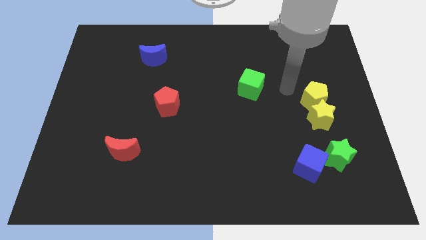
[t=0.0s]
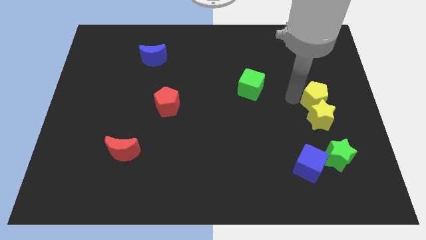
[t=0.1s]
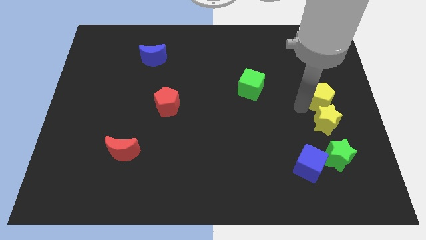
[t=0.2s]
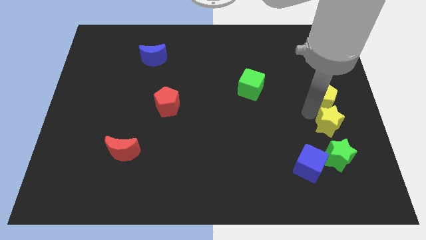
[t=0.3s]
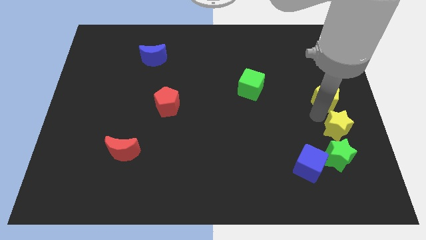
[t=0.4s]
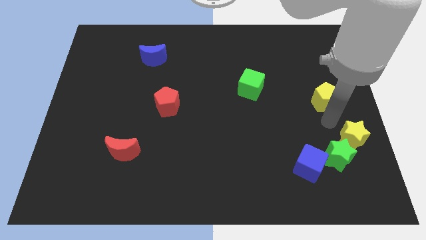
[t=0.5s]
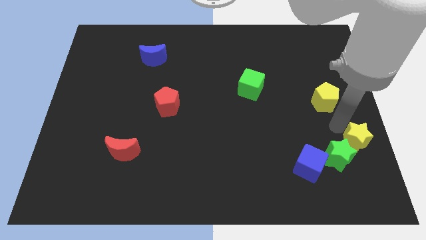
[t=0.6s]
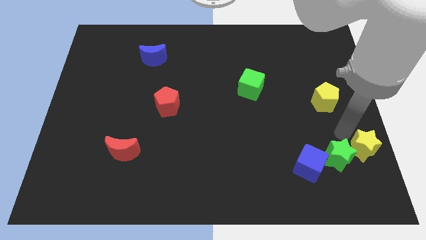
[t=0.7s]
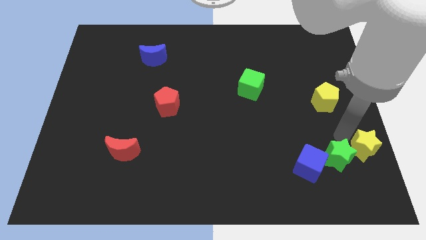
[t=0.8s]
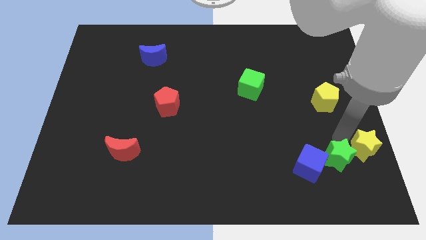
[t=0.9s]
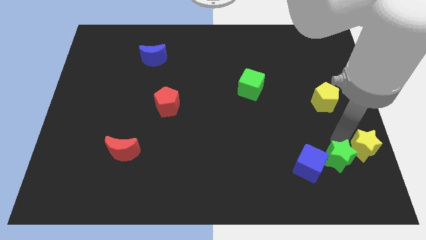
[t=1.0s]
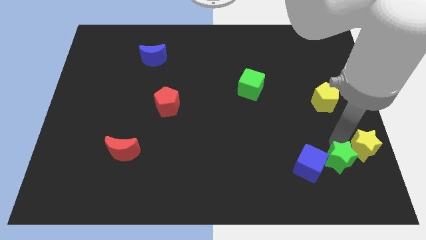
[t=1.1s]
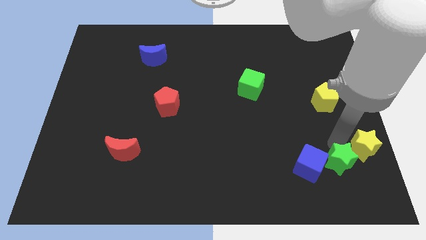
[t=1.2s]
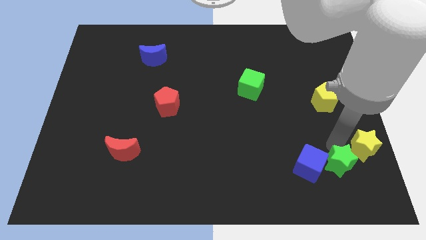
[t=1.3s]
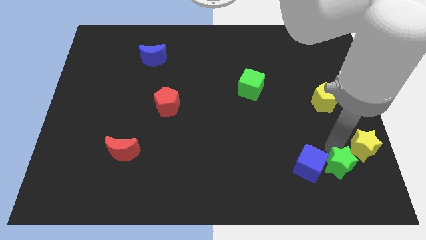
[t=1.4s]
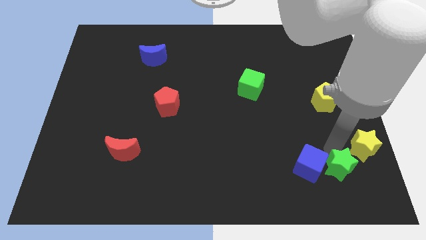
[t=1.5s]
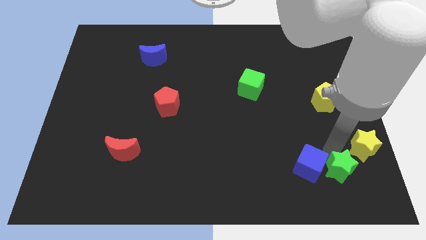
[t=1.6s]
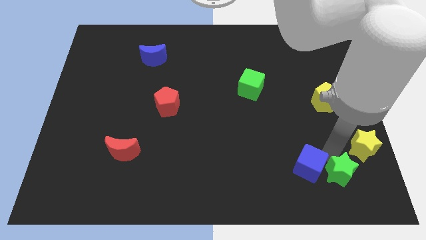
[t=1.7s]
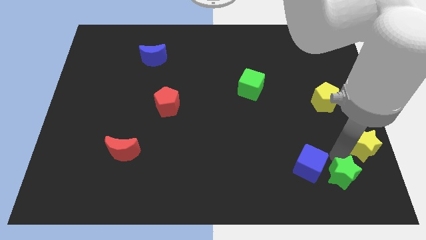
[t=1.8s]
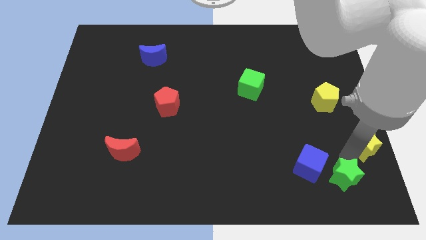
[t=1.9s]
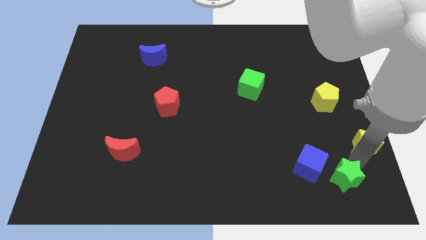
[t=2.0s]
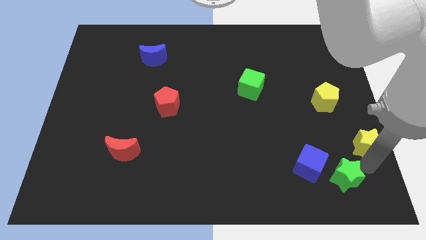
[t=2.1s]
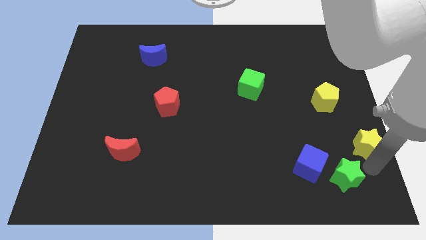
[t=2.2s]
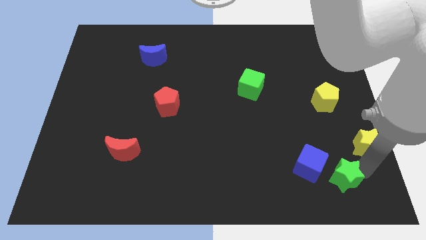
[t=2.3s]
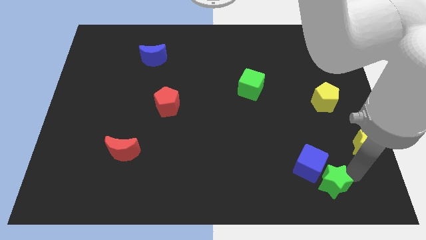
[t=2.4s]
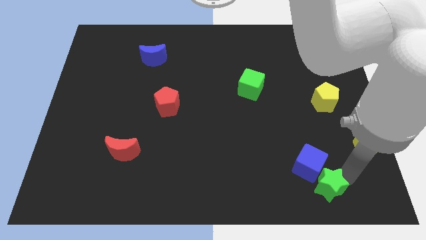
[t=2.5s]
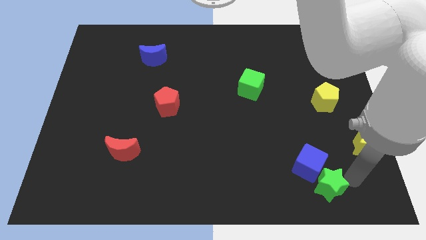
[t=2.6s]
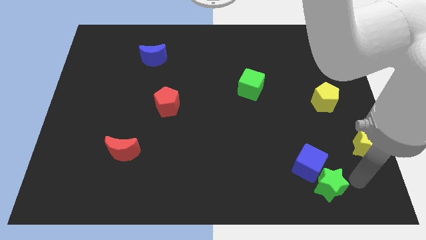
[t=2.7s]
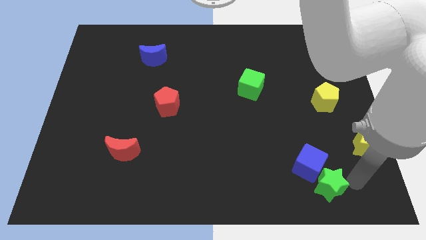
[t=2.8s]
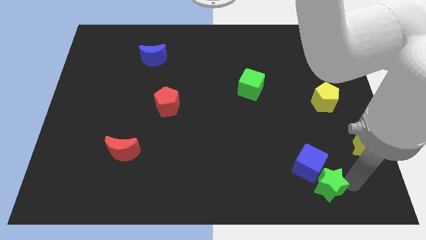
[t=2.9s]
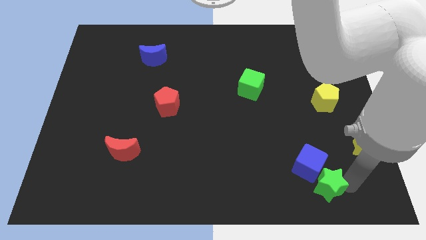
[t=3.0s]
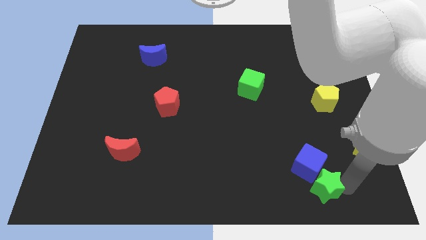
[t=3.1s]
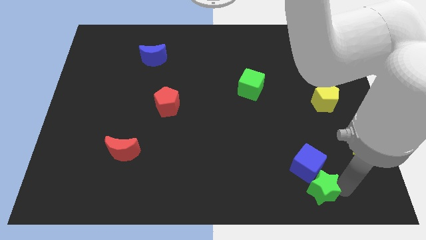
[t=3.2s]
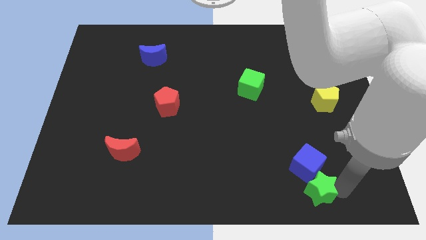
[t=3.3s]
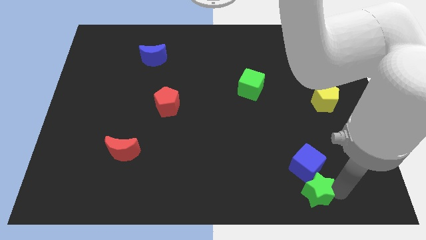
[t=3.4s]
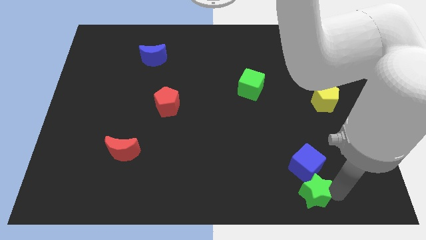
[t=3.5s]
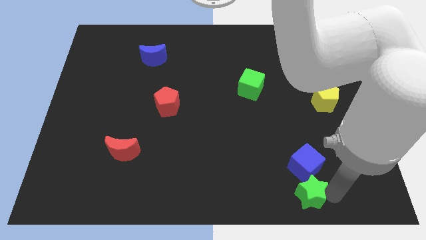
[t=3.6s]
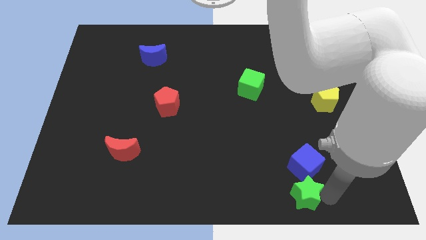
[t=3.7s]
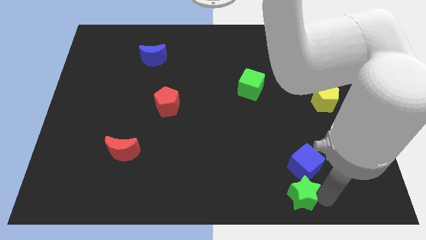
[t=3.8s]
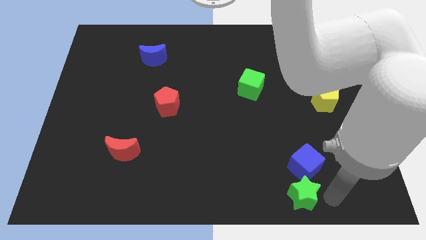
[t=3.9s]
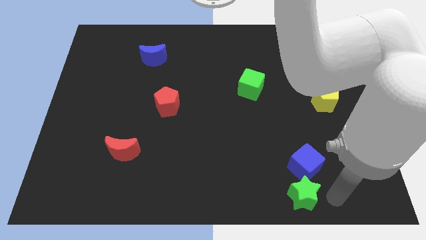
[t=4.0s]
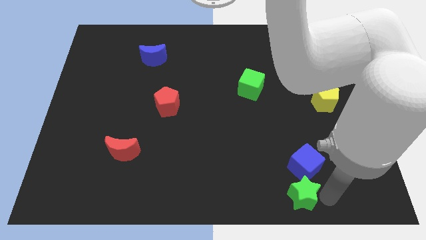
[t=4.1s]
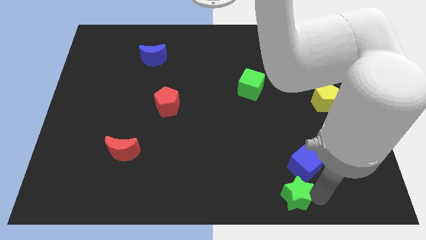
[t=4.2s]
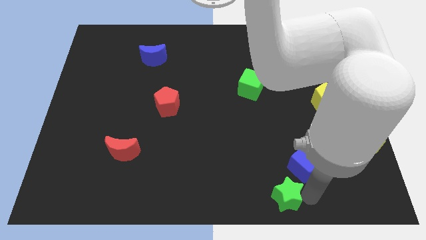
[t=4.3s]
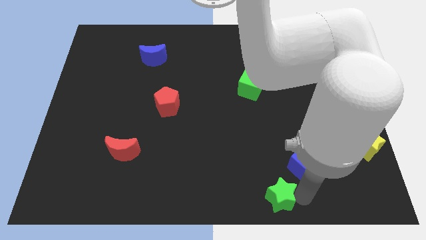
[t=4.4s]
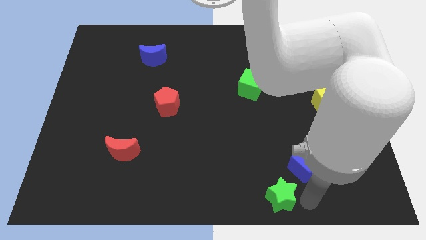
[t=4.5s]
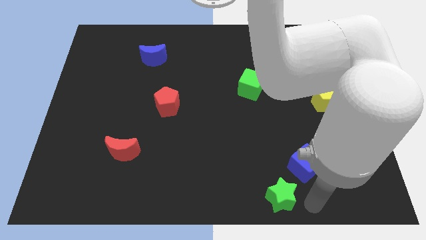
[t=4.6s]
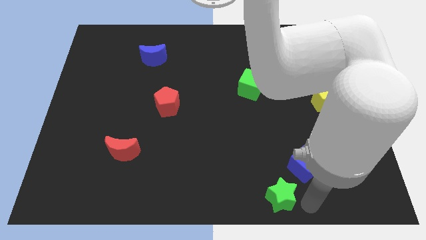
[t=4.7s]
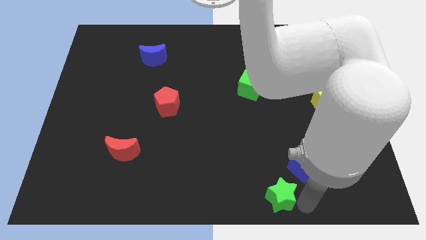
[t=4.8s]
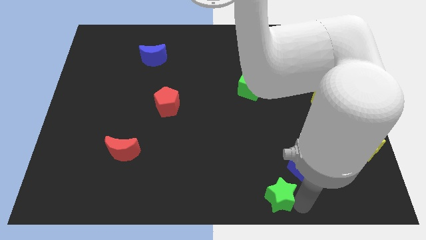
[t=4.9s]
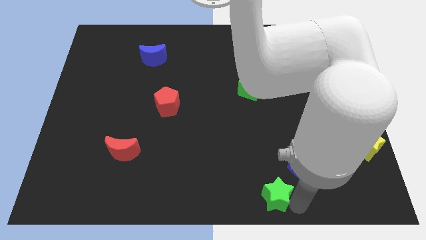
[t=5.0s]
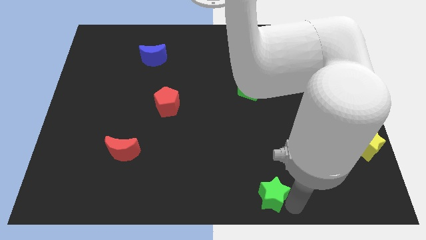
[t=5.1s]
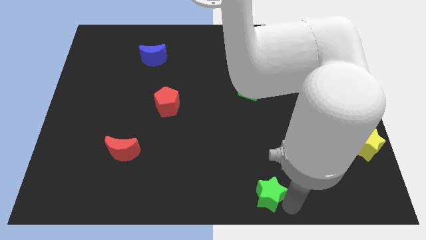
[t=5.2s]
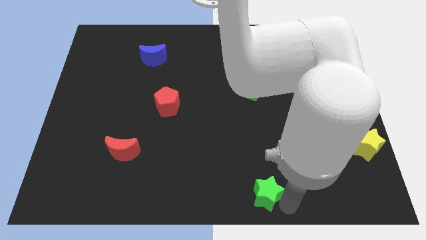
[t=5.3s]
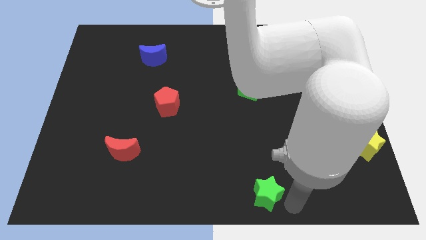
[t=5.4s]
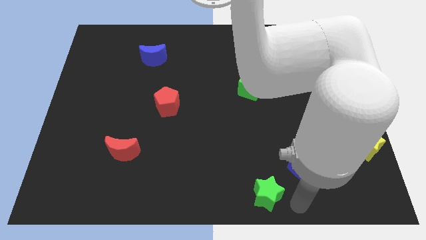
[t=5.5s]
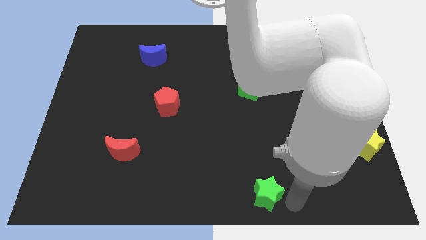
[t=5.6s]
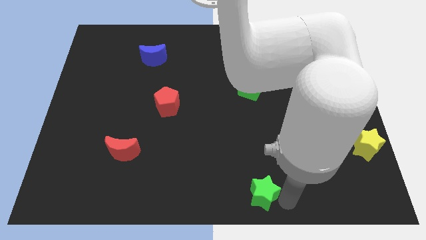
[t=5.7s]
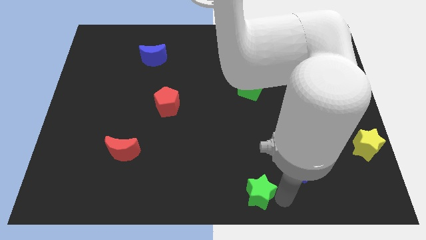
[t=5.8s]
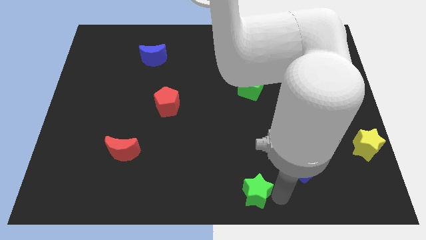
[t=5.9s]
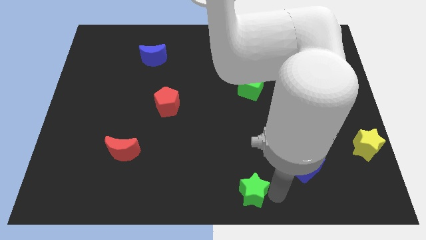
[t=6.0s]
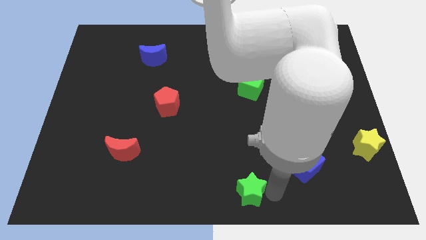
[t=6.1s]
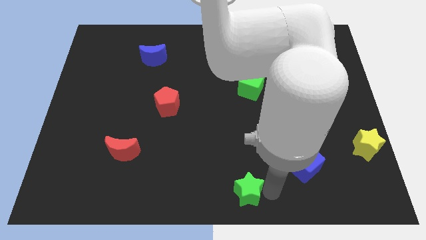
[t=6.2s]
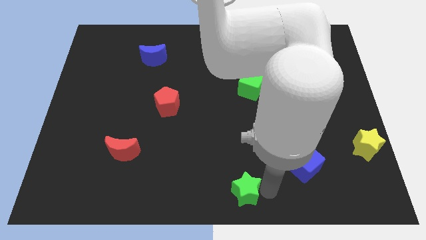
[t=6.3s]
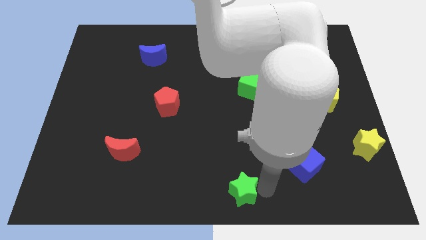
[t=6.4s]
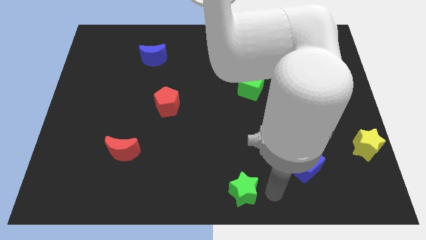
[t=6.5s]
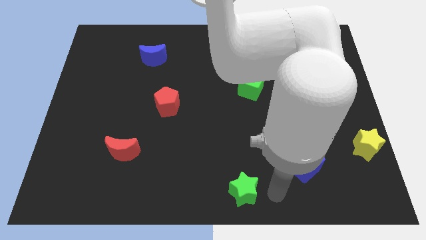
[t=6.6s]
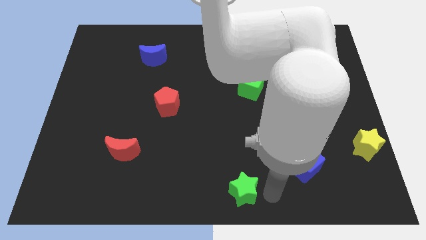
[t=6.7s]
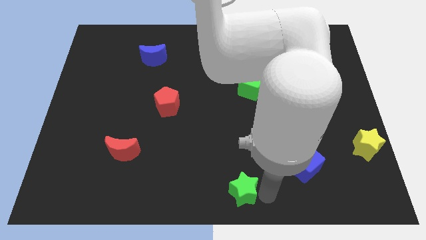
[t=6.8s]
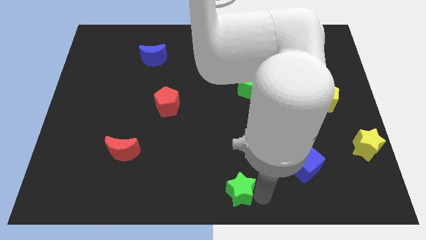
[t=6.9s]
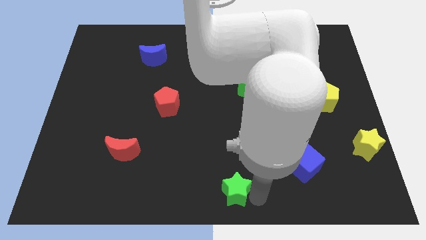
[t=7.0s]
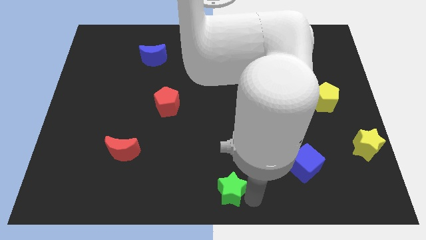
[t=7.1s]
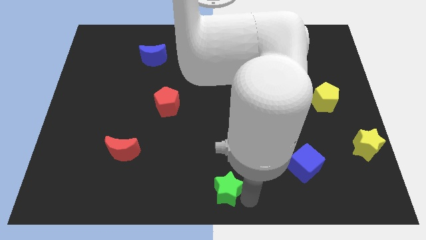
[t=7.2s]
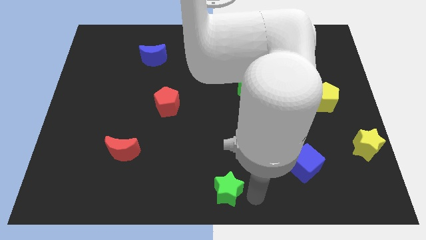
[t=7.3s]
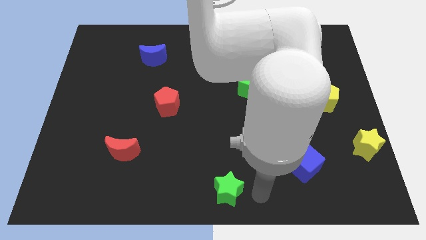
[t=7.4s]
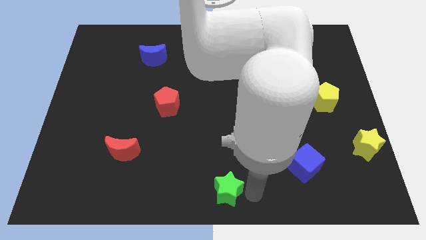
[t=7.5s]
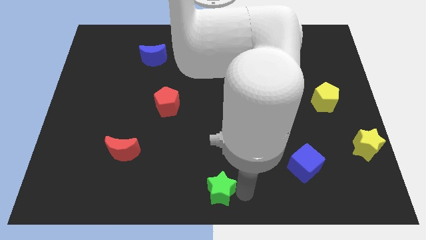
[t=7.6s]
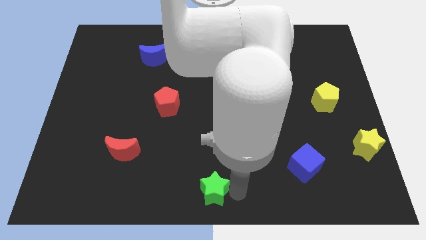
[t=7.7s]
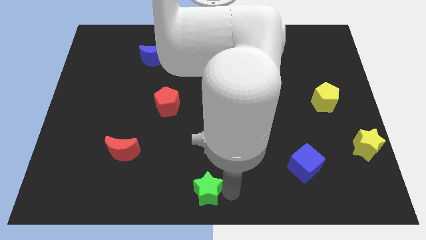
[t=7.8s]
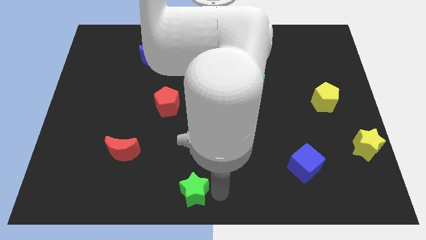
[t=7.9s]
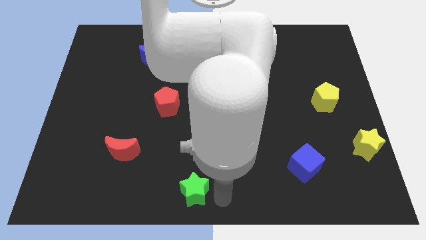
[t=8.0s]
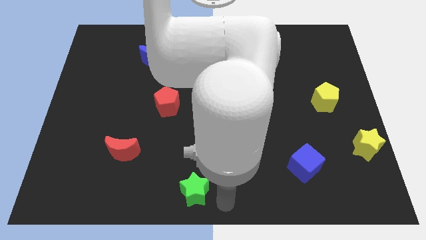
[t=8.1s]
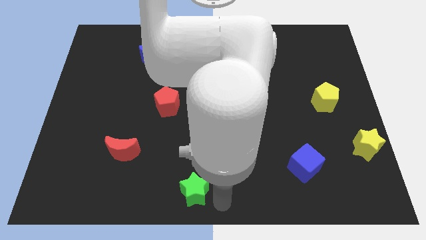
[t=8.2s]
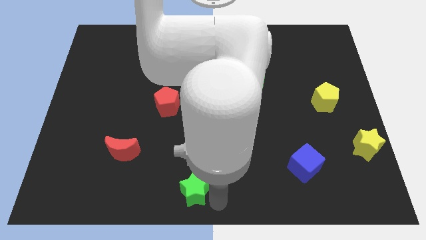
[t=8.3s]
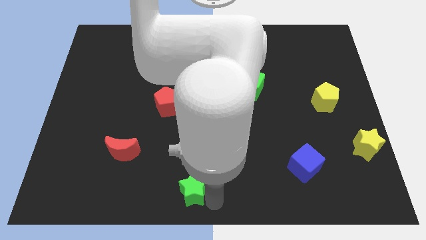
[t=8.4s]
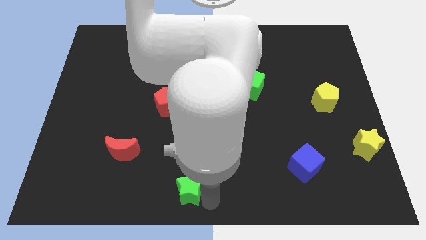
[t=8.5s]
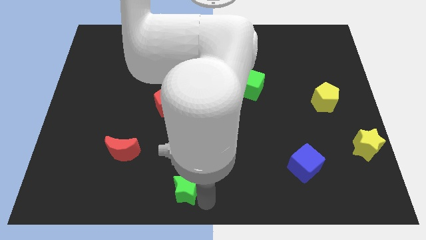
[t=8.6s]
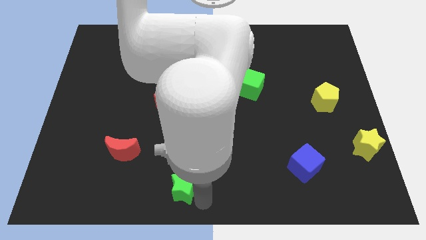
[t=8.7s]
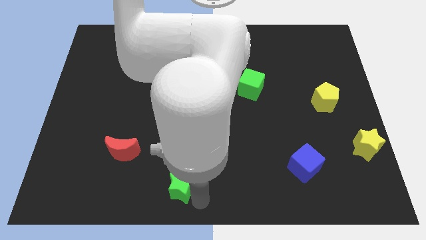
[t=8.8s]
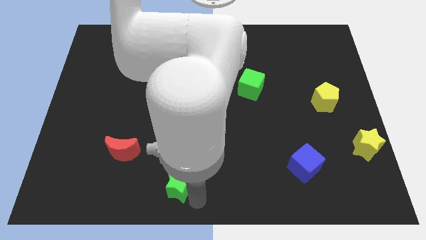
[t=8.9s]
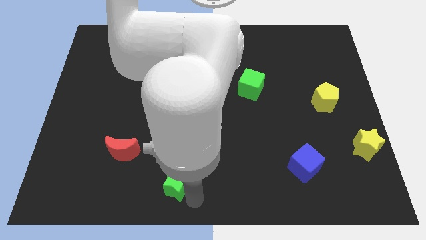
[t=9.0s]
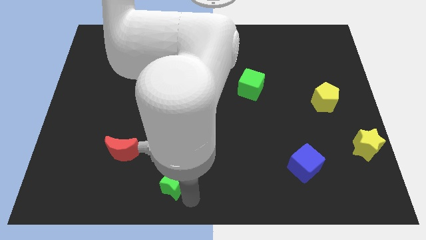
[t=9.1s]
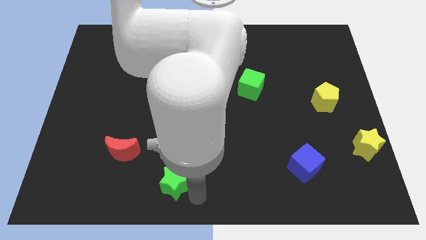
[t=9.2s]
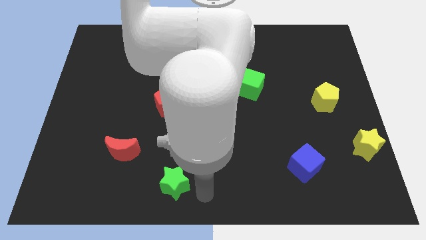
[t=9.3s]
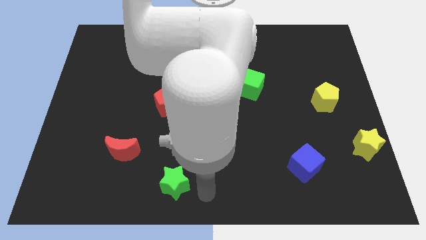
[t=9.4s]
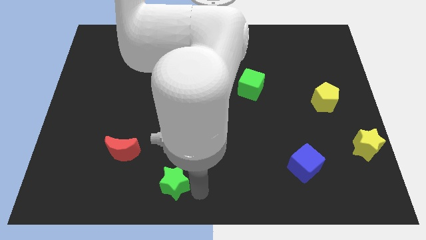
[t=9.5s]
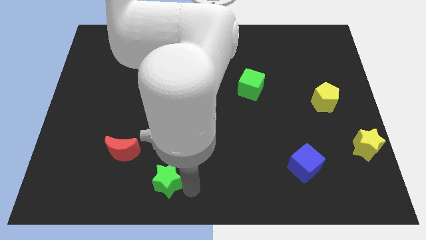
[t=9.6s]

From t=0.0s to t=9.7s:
push the green star to the bottom right side of the red moon
